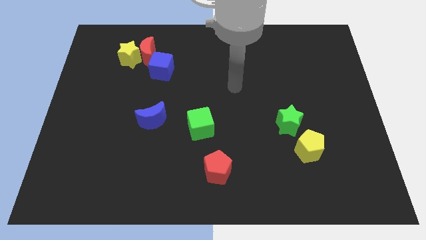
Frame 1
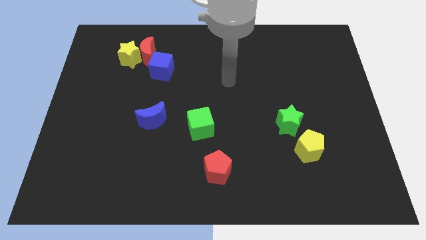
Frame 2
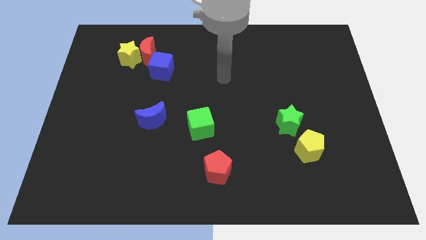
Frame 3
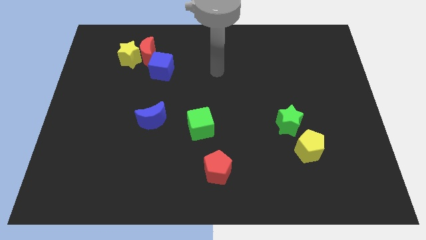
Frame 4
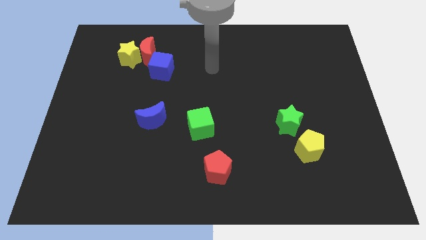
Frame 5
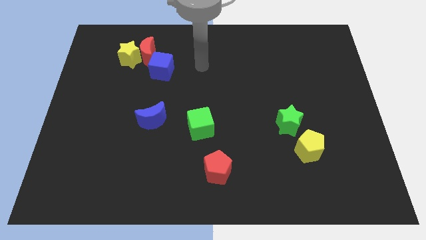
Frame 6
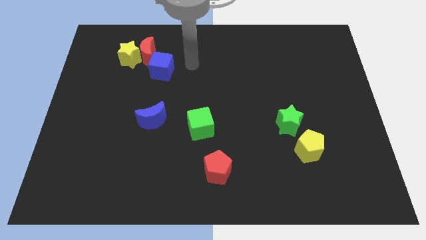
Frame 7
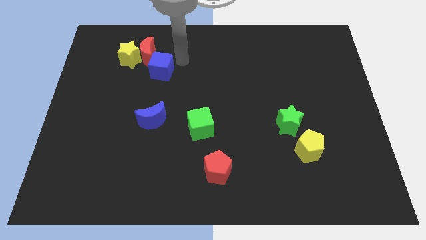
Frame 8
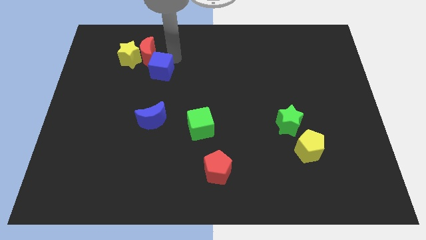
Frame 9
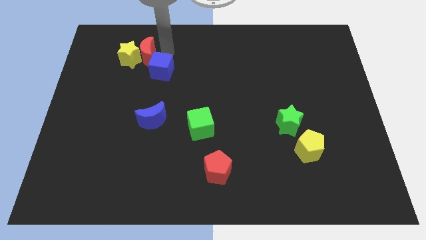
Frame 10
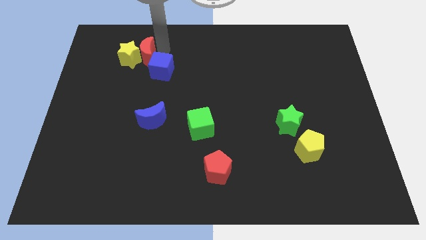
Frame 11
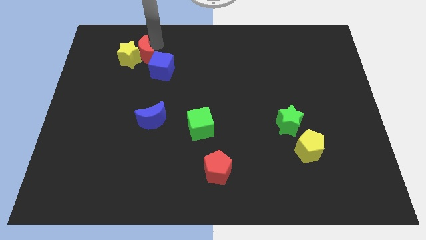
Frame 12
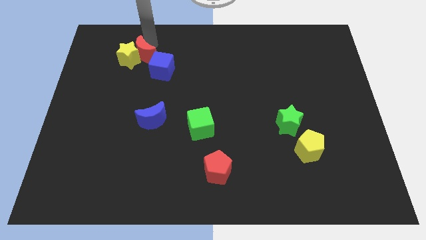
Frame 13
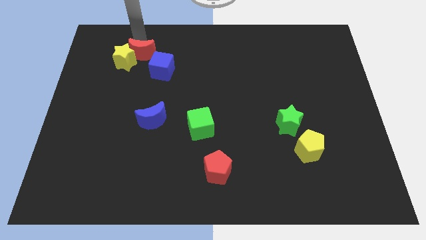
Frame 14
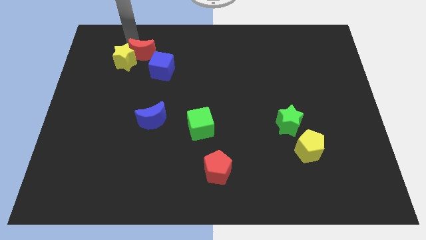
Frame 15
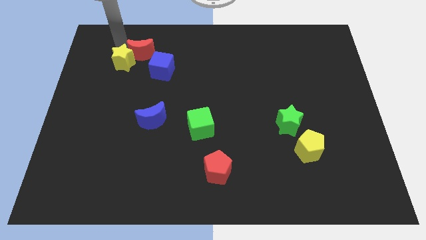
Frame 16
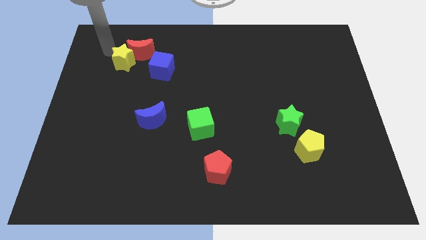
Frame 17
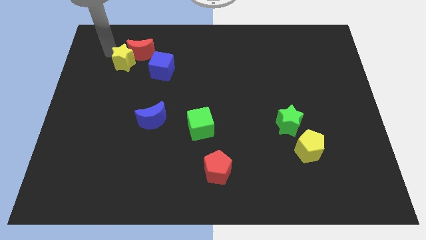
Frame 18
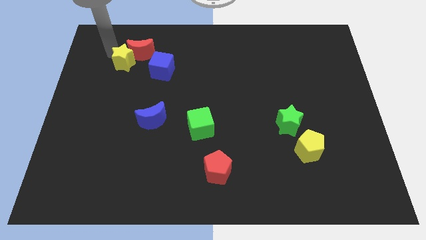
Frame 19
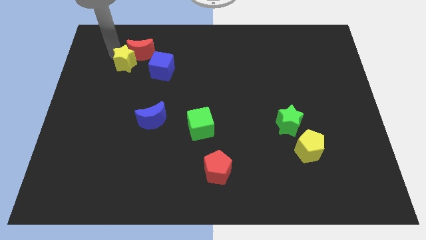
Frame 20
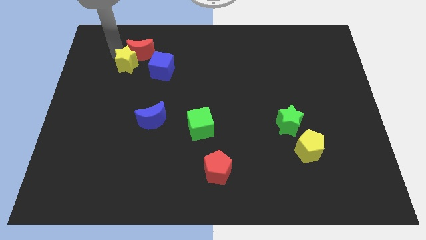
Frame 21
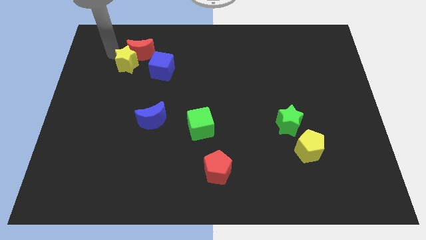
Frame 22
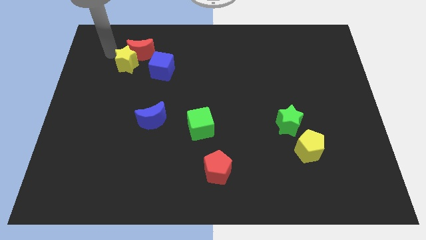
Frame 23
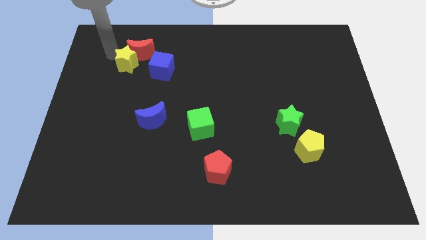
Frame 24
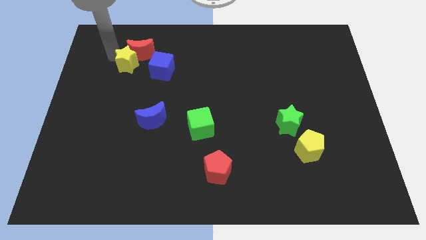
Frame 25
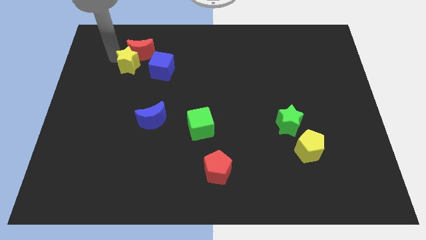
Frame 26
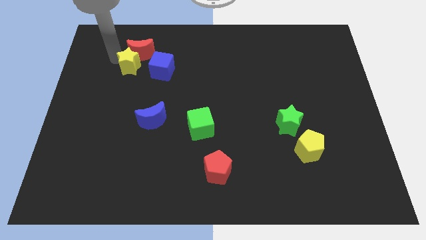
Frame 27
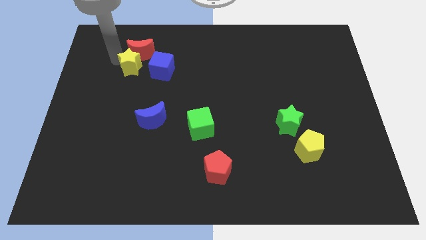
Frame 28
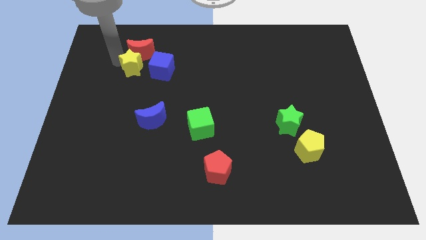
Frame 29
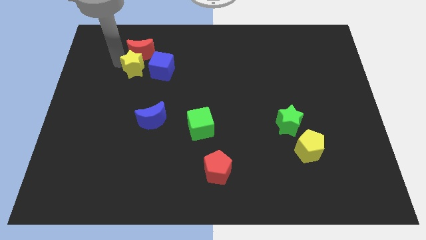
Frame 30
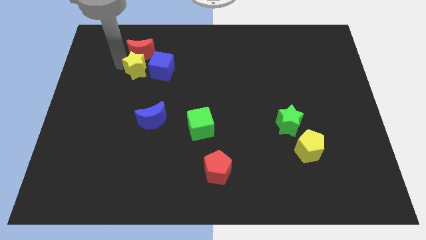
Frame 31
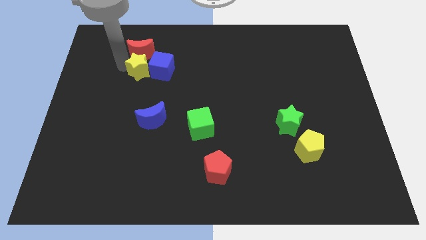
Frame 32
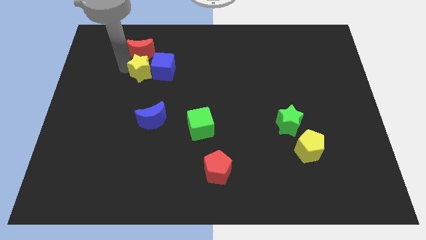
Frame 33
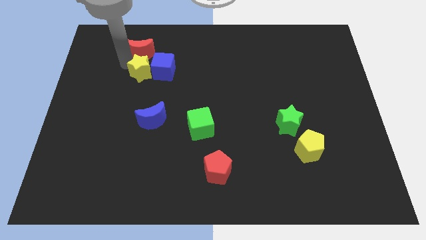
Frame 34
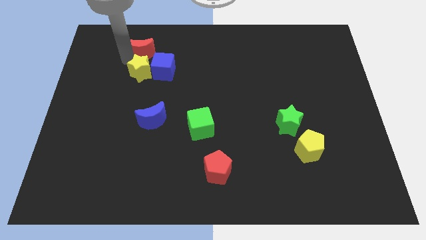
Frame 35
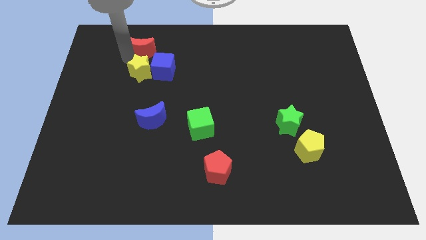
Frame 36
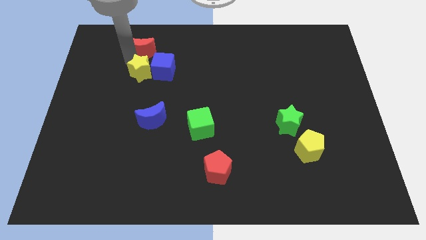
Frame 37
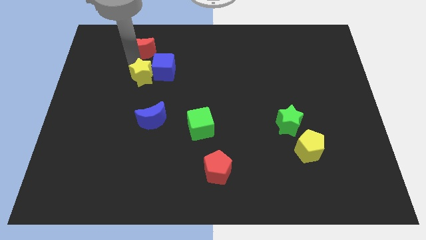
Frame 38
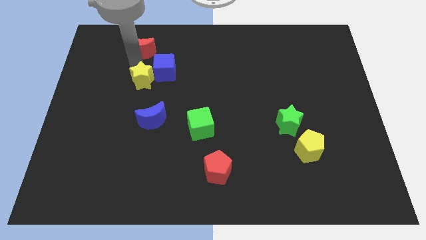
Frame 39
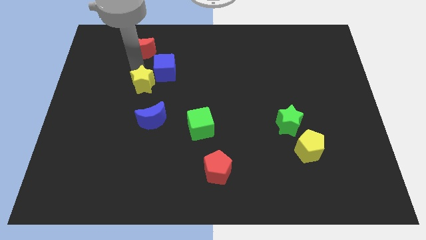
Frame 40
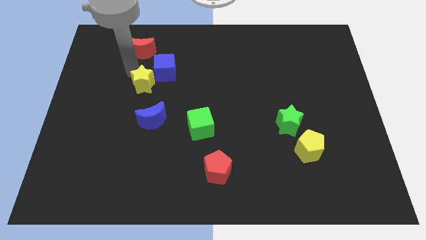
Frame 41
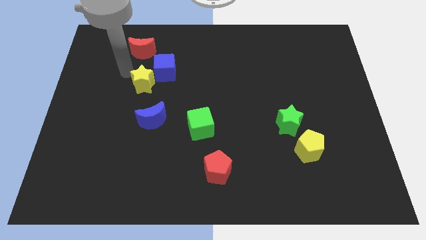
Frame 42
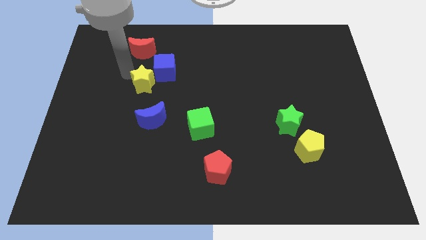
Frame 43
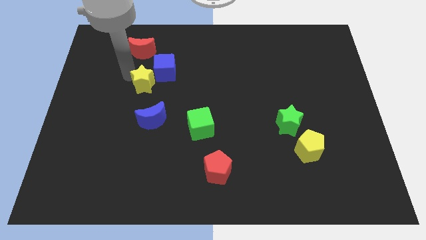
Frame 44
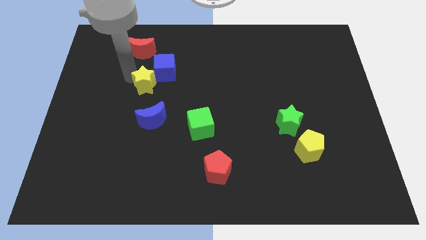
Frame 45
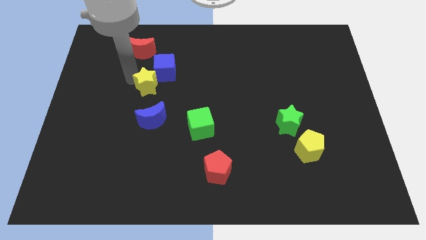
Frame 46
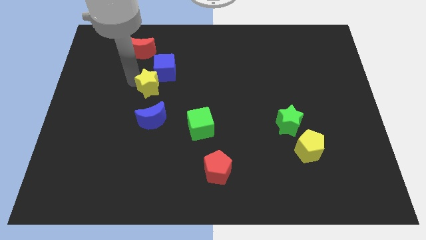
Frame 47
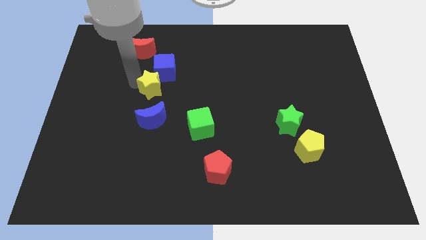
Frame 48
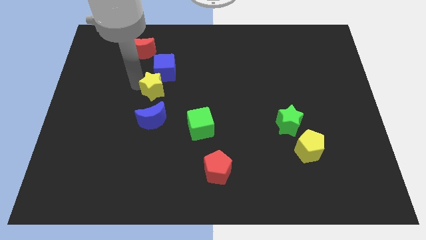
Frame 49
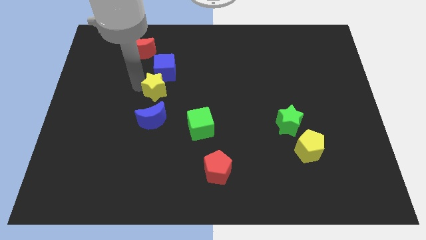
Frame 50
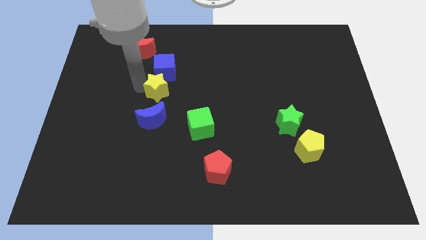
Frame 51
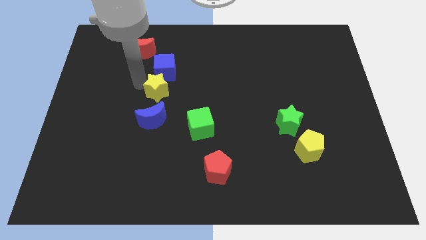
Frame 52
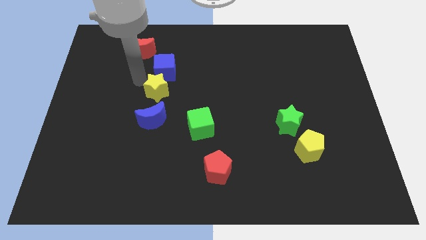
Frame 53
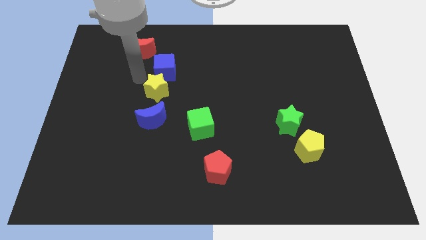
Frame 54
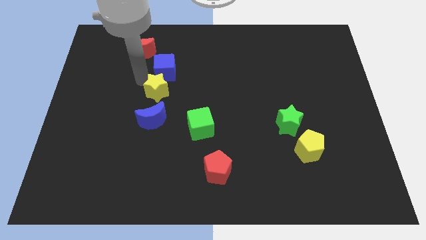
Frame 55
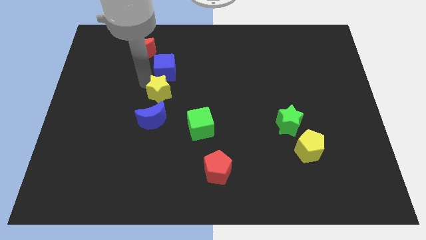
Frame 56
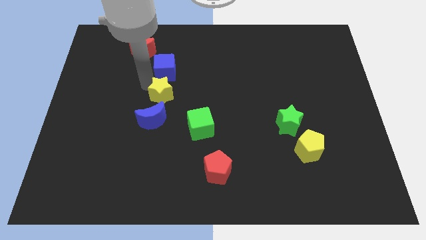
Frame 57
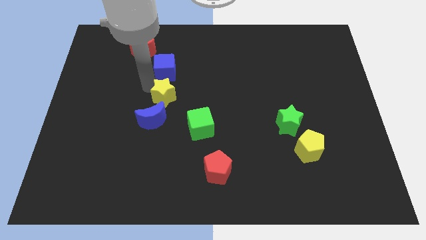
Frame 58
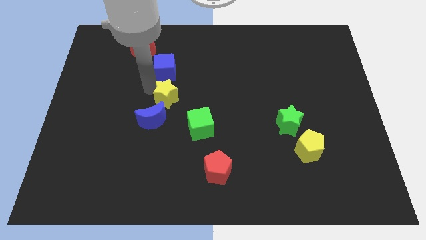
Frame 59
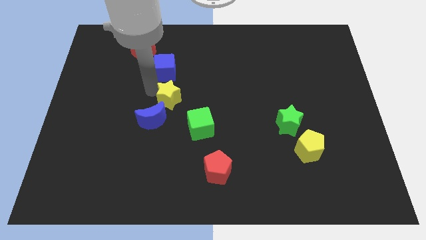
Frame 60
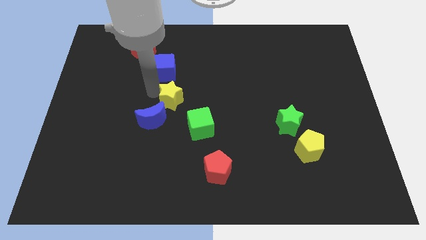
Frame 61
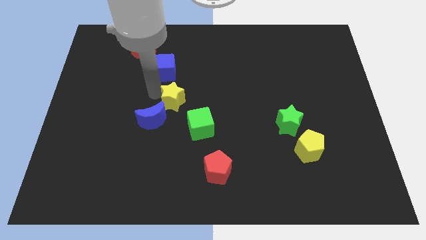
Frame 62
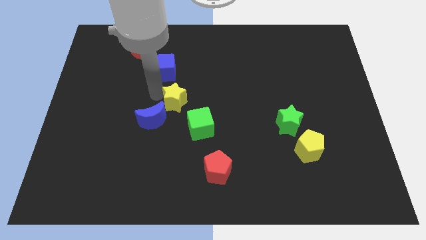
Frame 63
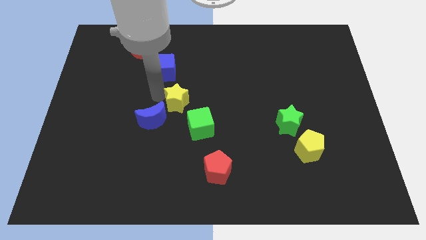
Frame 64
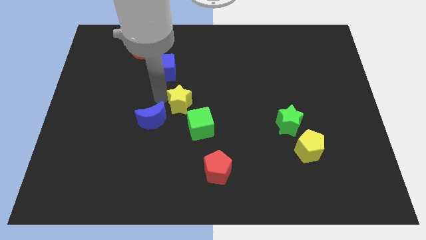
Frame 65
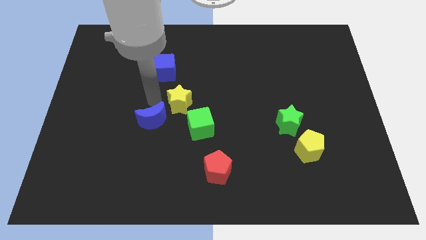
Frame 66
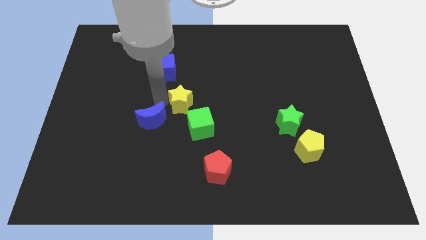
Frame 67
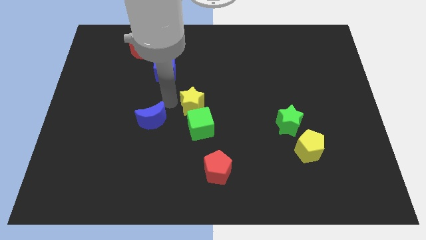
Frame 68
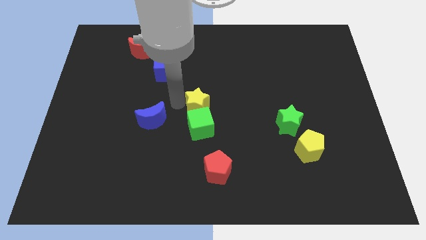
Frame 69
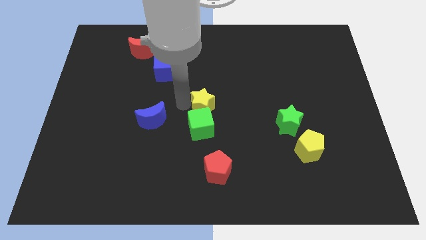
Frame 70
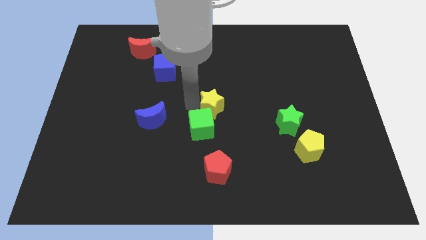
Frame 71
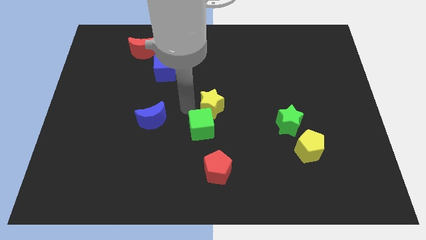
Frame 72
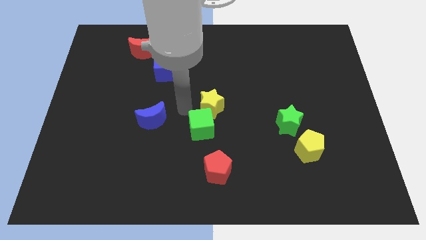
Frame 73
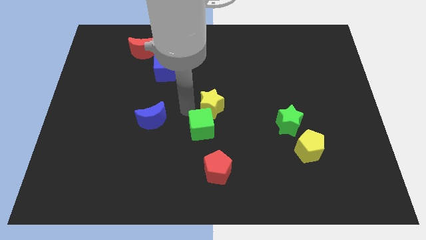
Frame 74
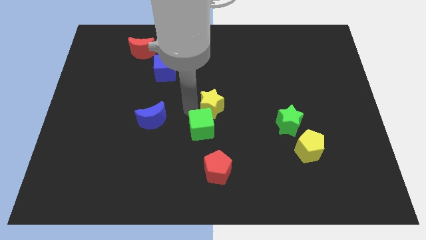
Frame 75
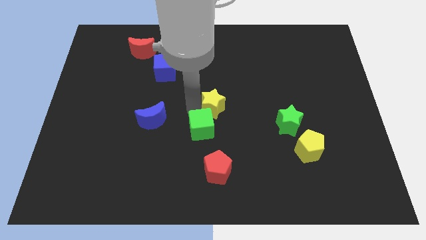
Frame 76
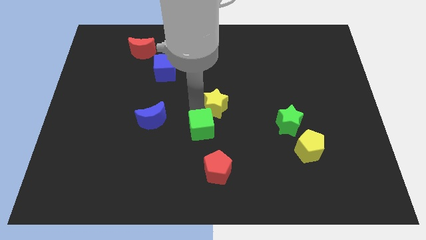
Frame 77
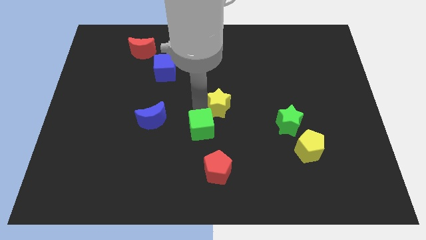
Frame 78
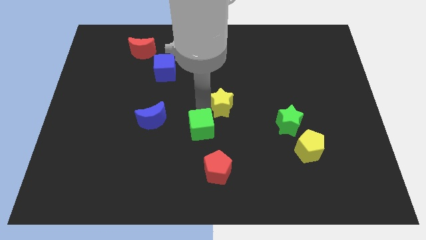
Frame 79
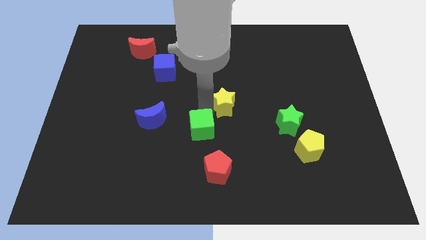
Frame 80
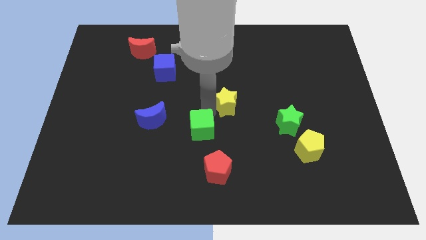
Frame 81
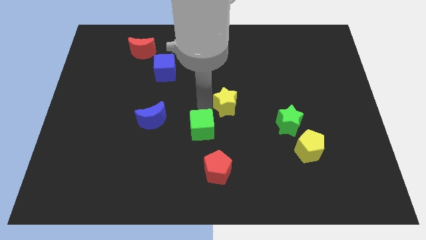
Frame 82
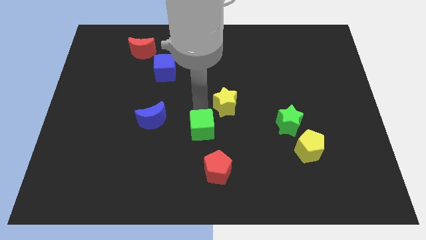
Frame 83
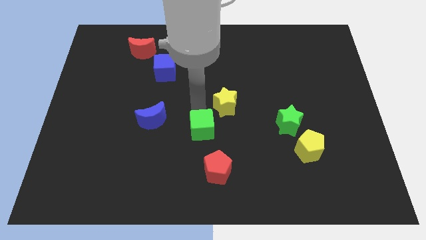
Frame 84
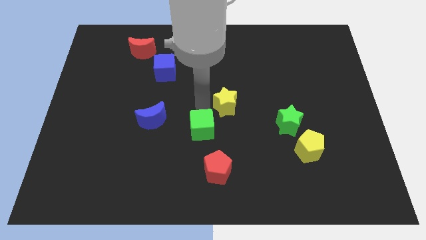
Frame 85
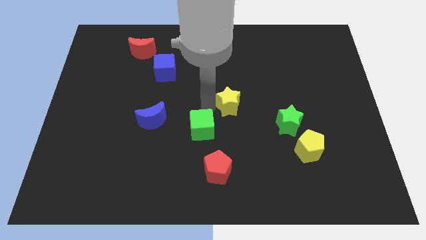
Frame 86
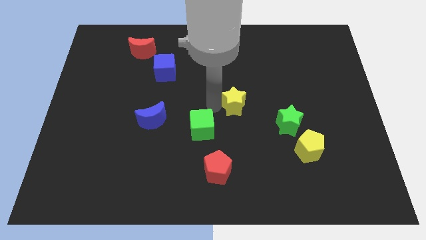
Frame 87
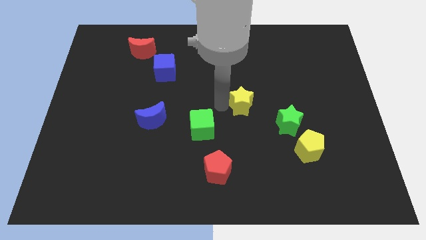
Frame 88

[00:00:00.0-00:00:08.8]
slide the yellow star to the top left of the green star
